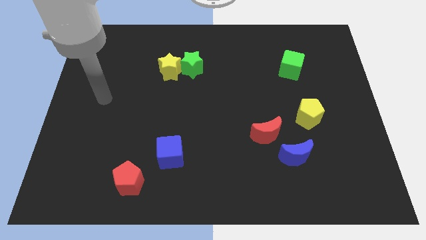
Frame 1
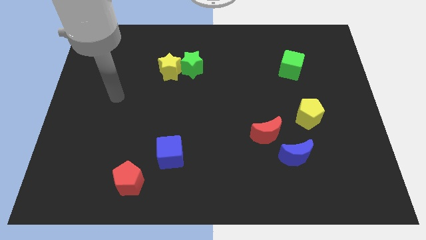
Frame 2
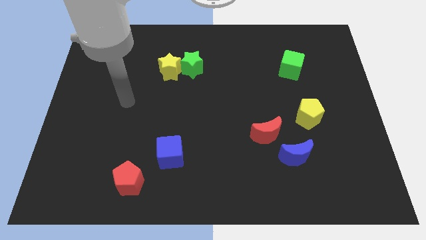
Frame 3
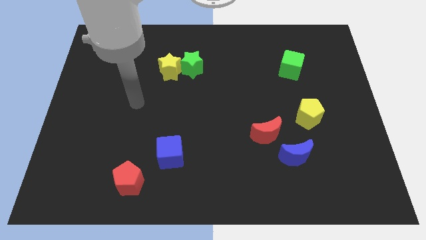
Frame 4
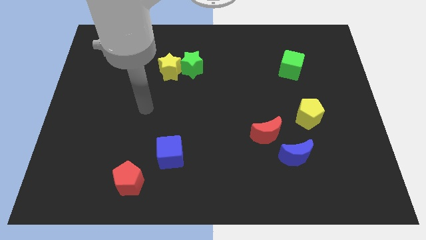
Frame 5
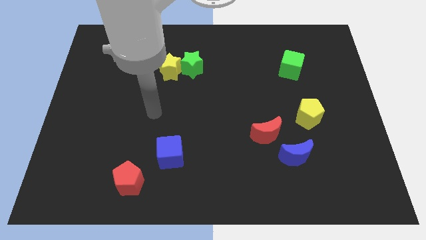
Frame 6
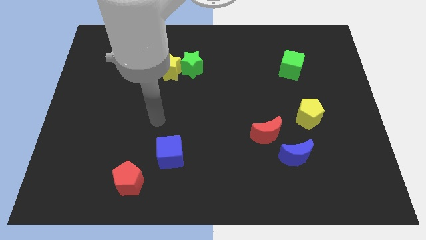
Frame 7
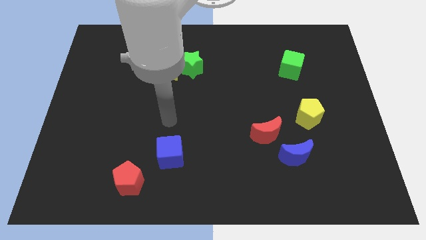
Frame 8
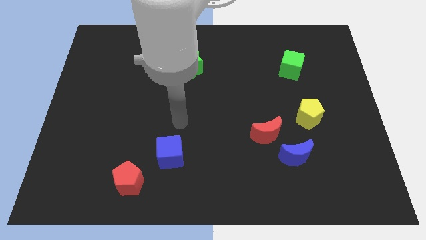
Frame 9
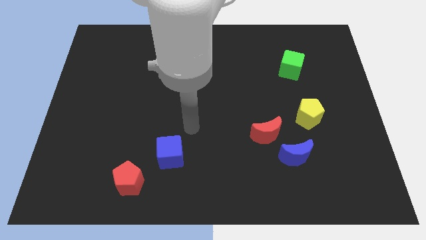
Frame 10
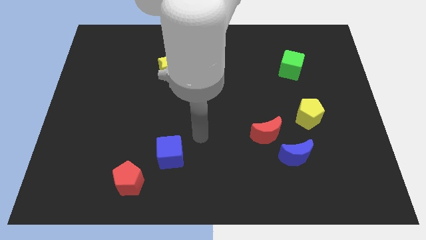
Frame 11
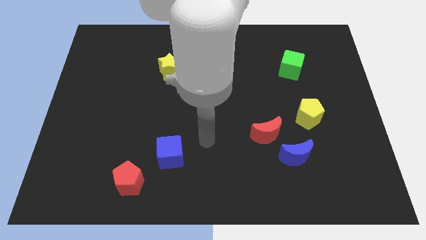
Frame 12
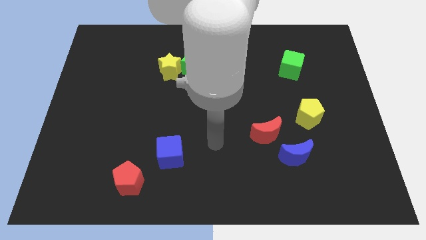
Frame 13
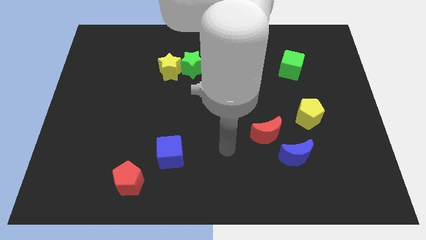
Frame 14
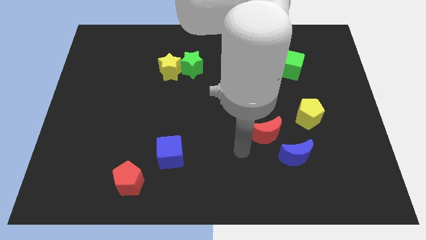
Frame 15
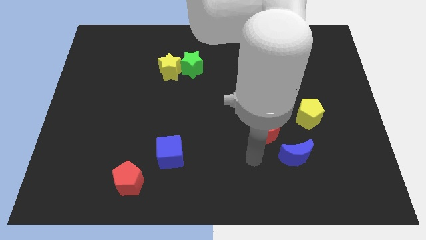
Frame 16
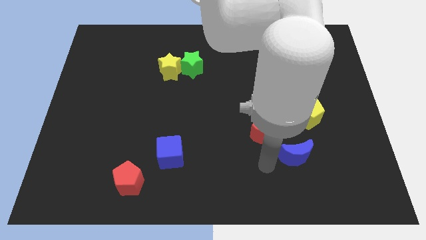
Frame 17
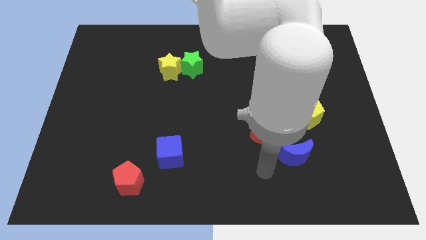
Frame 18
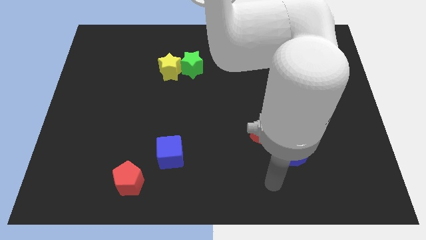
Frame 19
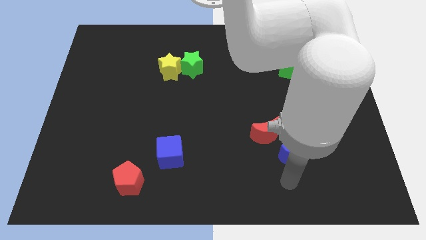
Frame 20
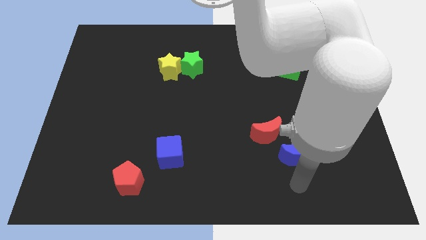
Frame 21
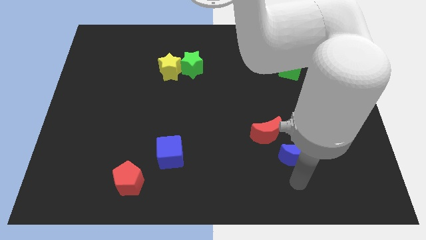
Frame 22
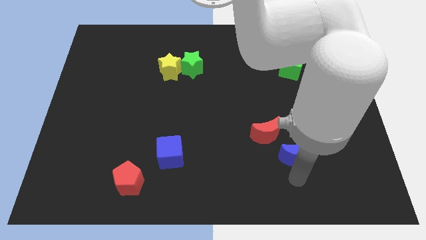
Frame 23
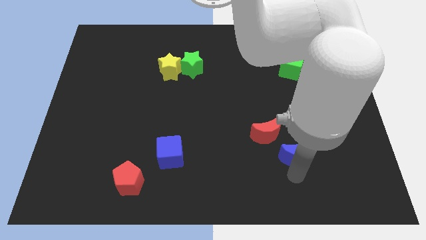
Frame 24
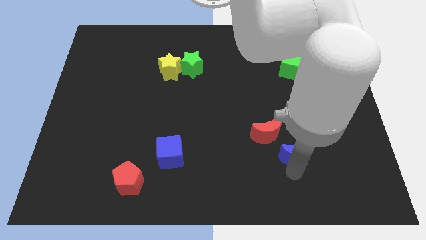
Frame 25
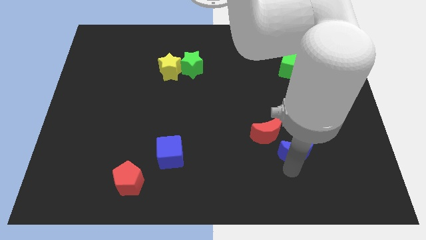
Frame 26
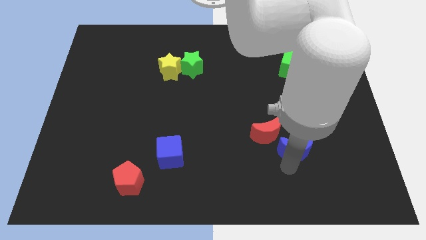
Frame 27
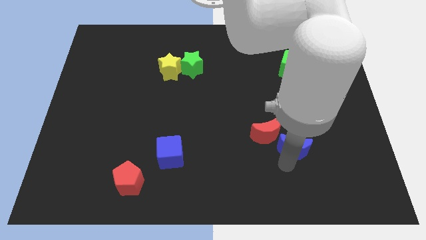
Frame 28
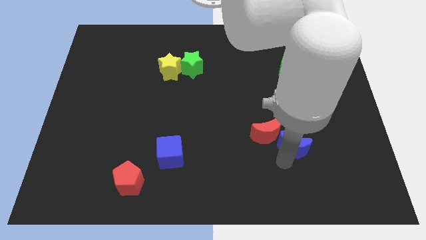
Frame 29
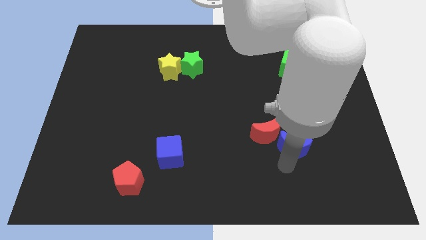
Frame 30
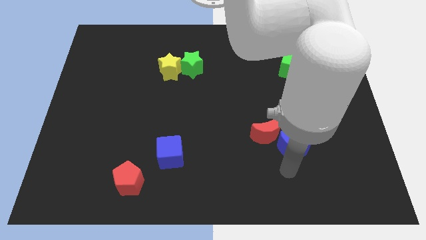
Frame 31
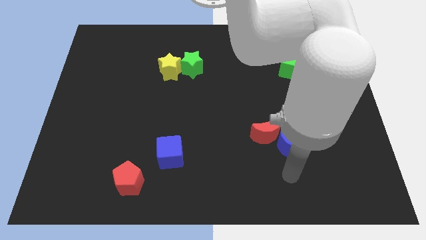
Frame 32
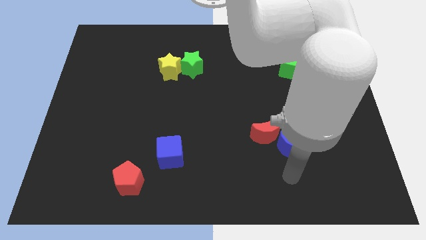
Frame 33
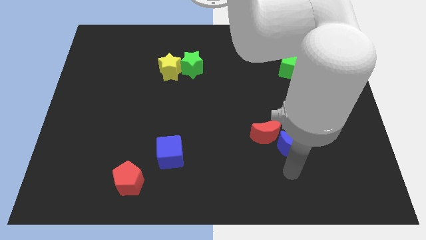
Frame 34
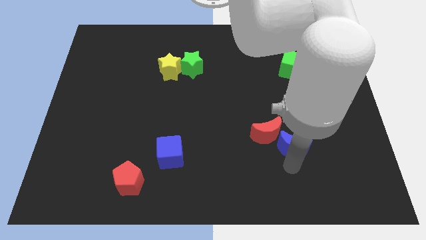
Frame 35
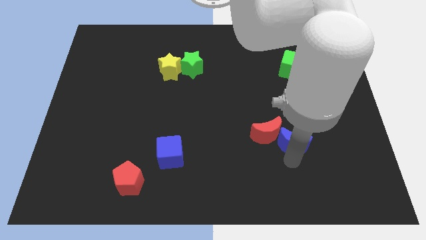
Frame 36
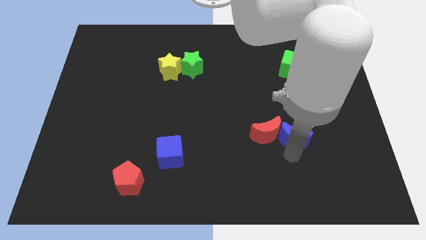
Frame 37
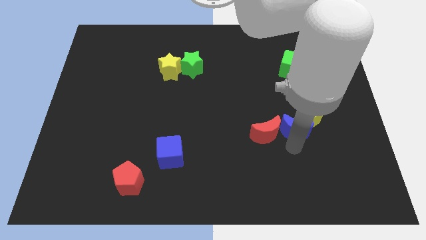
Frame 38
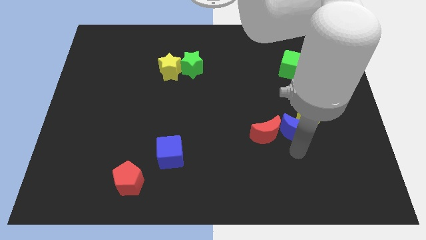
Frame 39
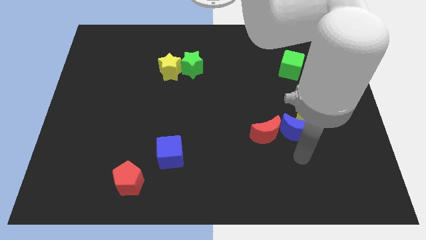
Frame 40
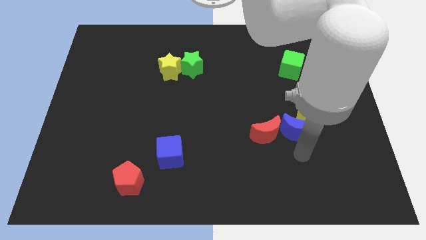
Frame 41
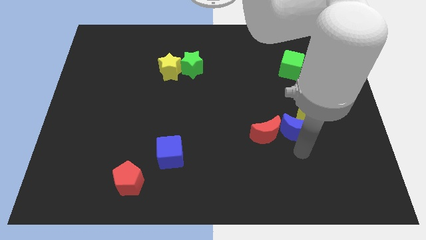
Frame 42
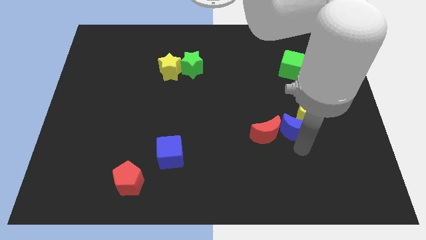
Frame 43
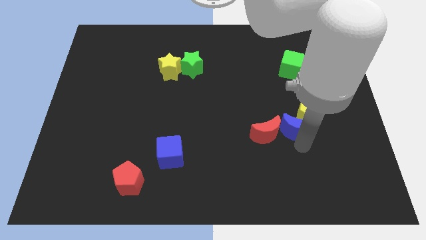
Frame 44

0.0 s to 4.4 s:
push the blue moon a little up

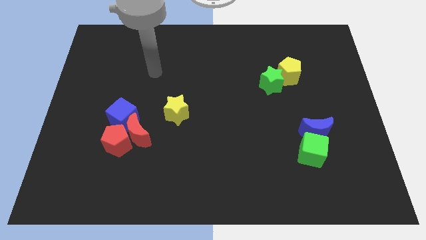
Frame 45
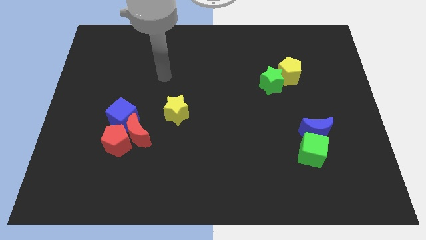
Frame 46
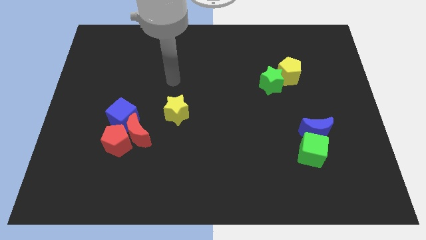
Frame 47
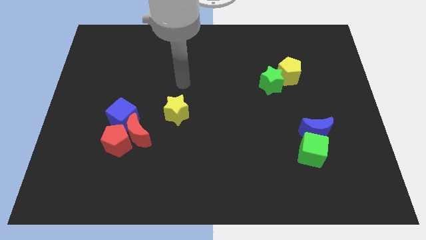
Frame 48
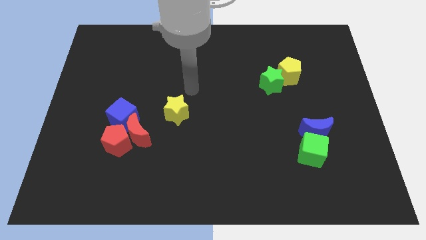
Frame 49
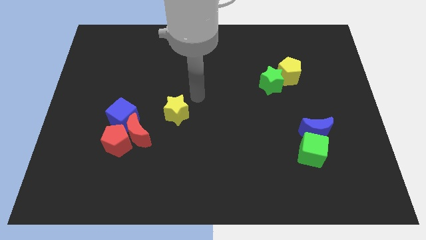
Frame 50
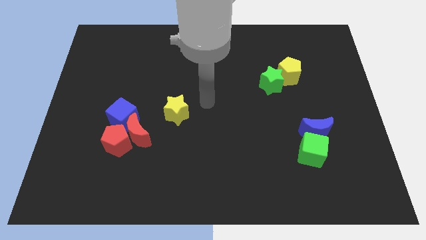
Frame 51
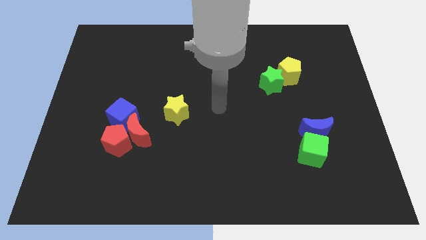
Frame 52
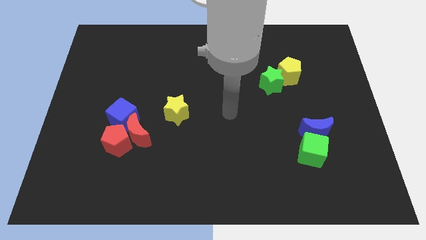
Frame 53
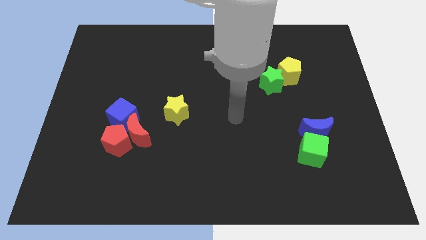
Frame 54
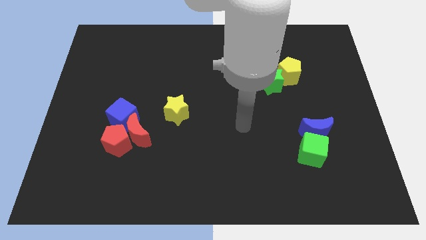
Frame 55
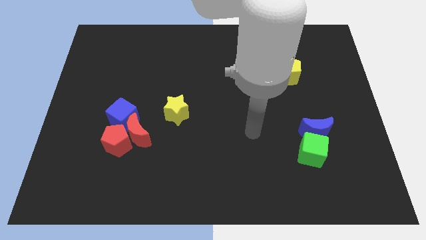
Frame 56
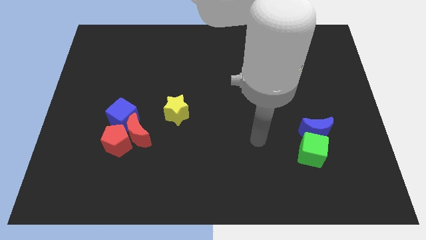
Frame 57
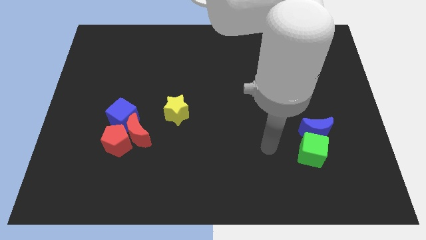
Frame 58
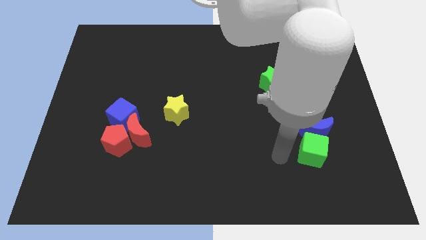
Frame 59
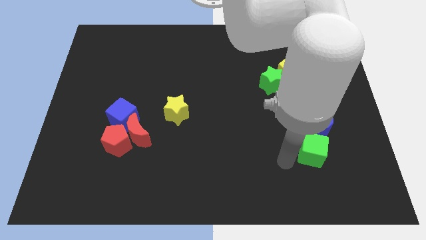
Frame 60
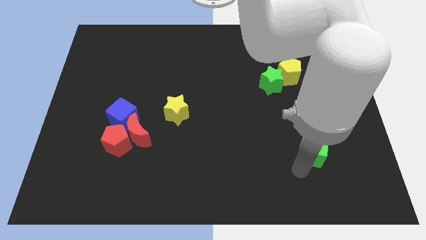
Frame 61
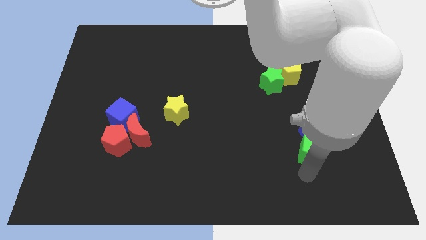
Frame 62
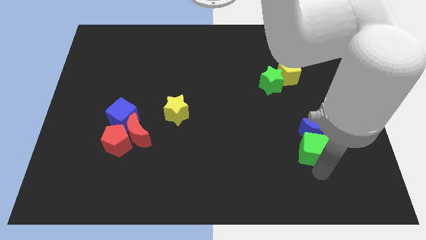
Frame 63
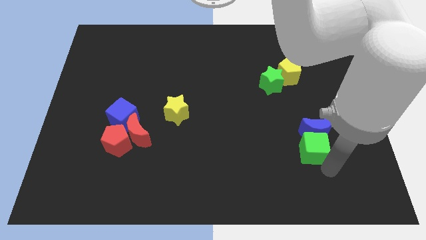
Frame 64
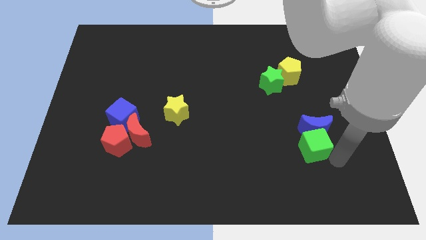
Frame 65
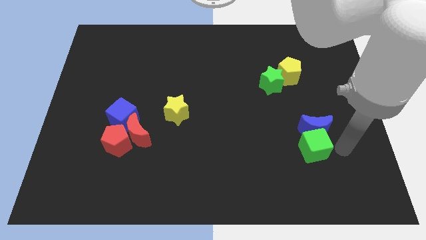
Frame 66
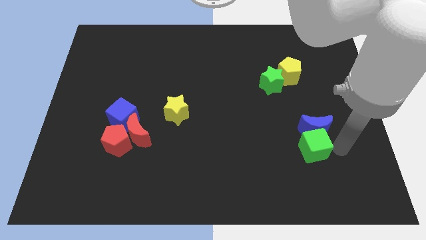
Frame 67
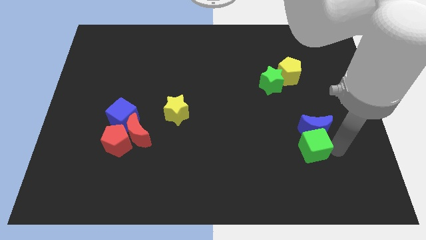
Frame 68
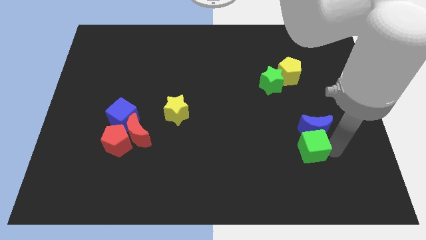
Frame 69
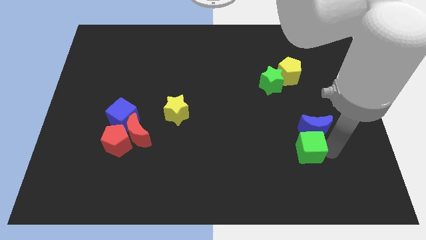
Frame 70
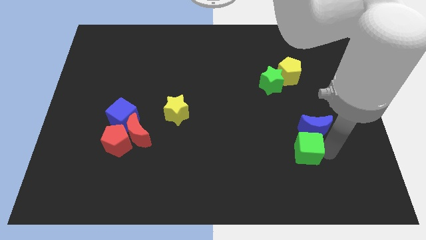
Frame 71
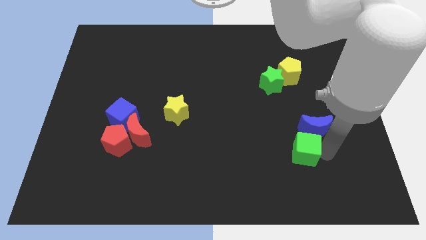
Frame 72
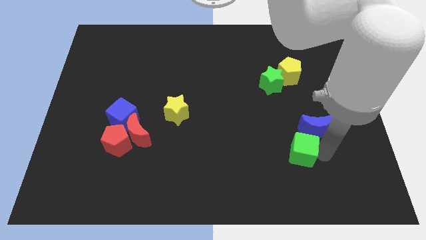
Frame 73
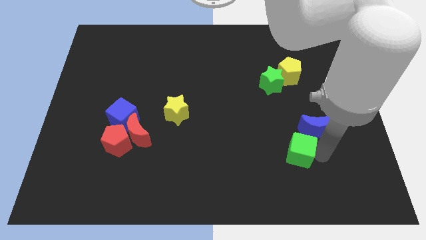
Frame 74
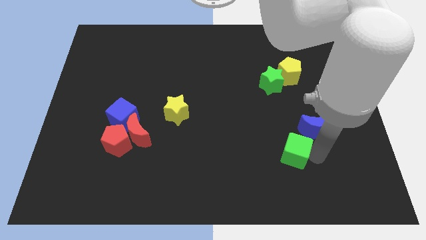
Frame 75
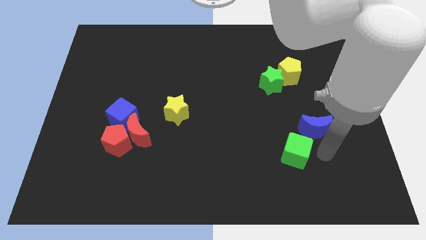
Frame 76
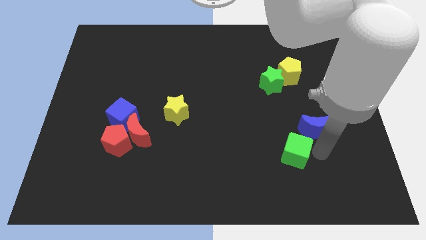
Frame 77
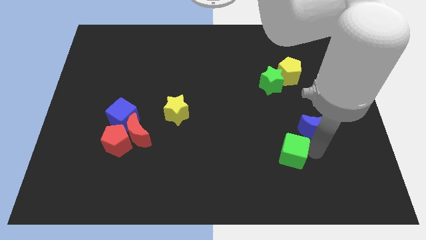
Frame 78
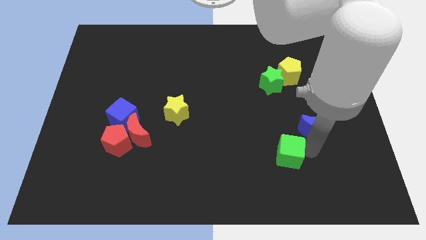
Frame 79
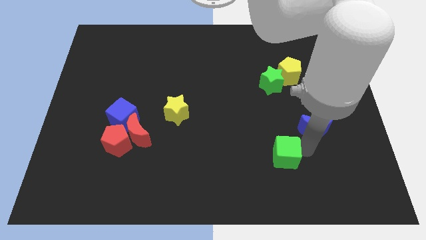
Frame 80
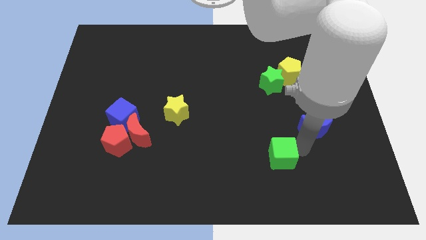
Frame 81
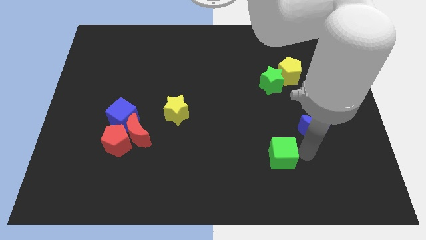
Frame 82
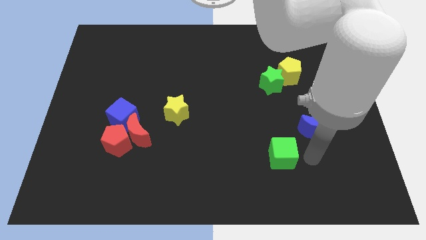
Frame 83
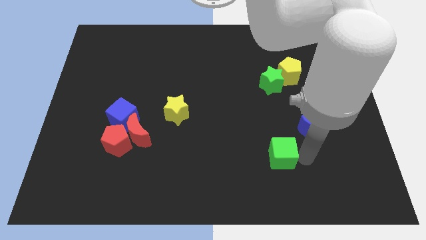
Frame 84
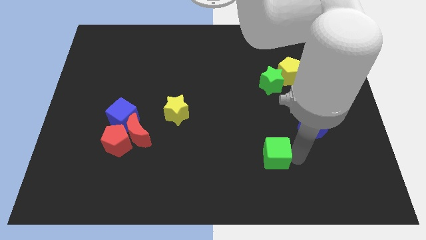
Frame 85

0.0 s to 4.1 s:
push the green cube a bit to the left

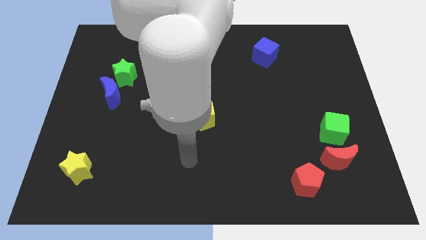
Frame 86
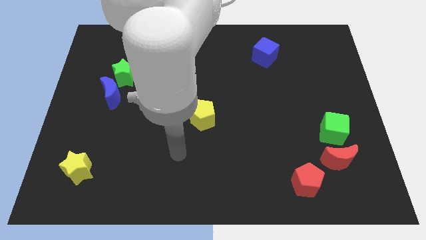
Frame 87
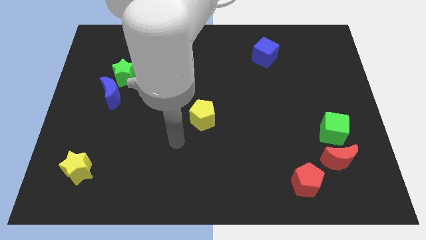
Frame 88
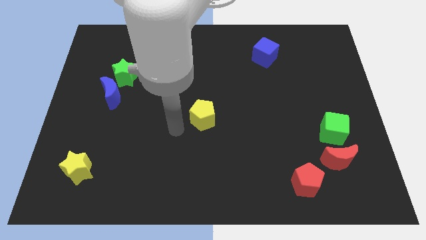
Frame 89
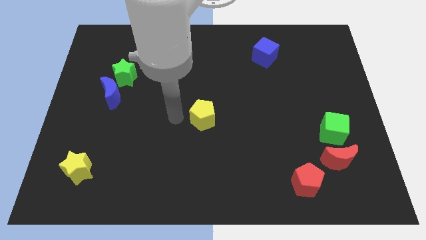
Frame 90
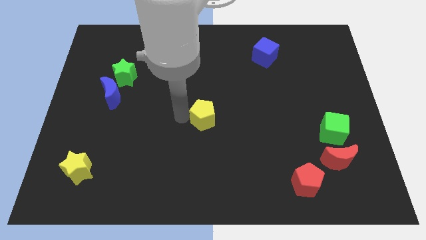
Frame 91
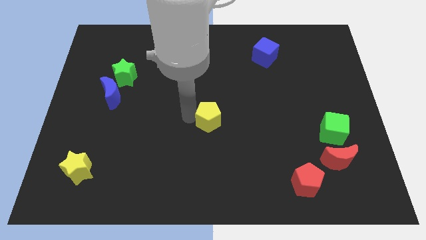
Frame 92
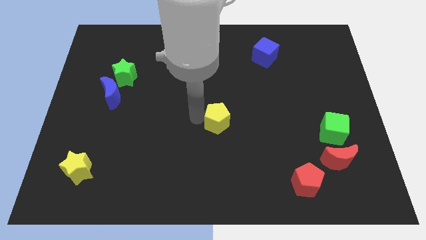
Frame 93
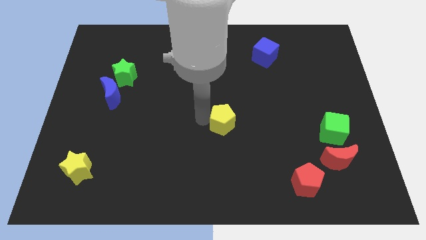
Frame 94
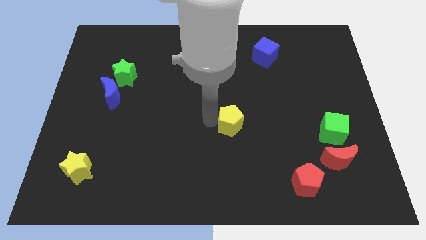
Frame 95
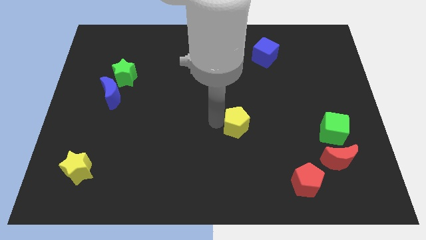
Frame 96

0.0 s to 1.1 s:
slightly push the yellow pentagon right
